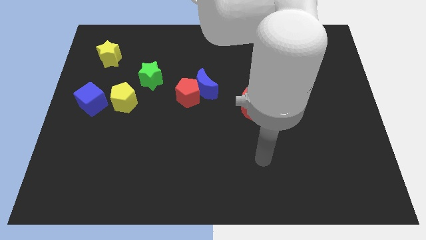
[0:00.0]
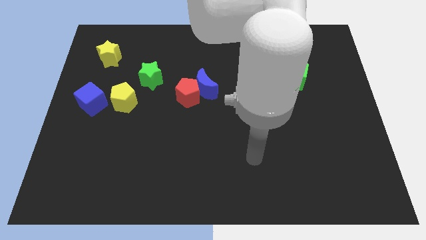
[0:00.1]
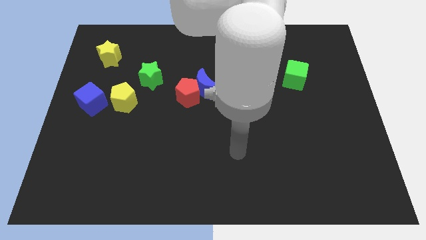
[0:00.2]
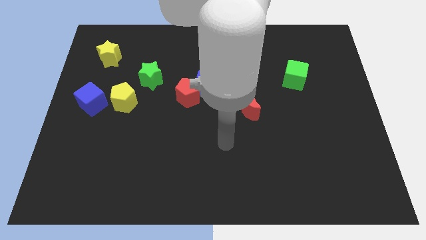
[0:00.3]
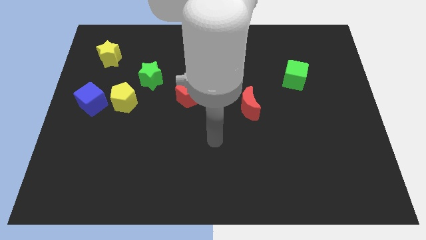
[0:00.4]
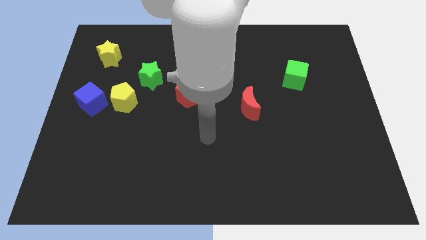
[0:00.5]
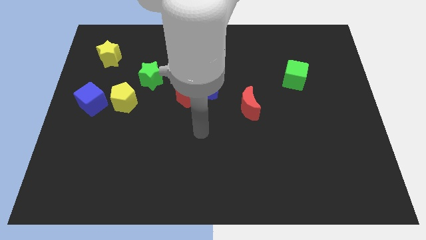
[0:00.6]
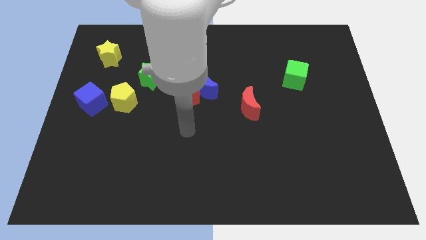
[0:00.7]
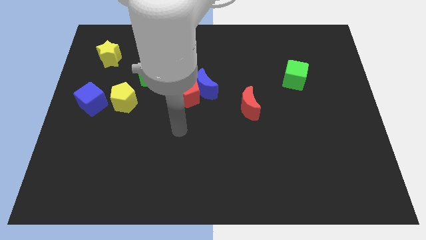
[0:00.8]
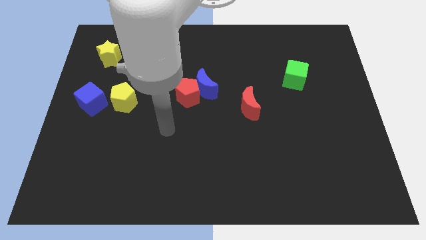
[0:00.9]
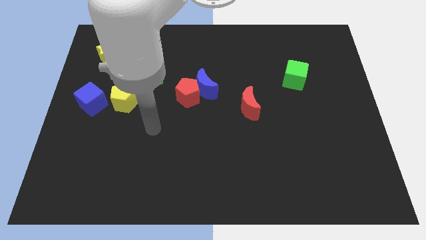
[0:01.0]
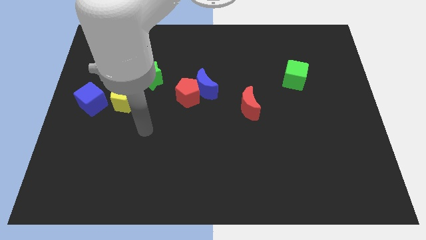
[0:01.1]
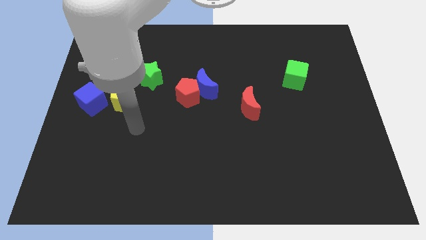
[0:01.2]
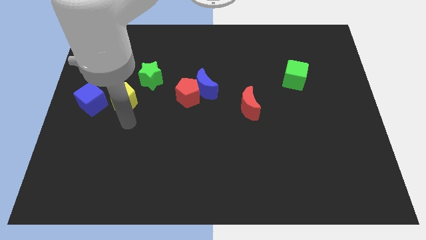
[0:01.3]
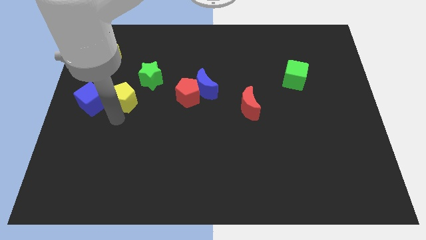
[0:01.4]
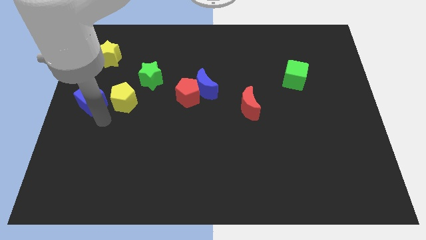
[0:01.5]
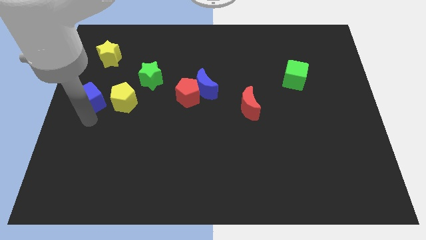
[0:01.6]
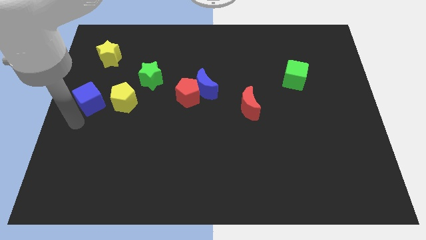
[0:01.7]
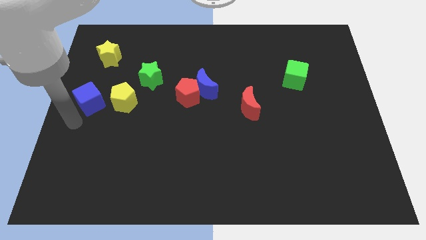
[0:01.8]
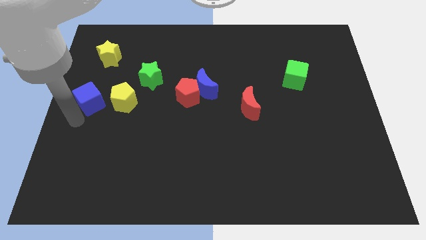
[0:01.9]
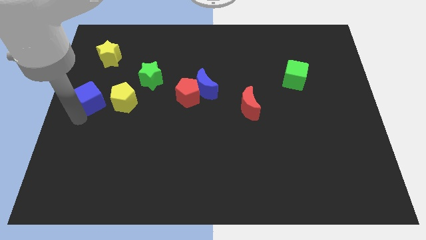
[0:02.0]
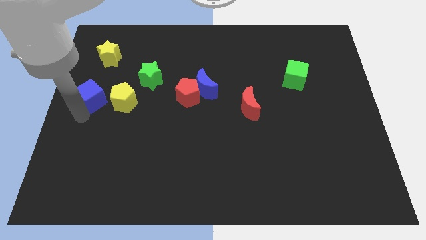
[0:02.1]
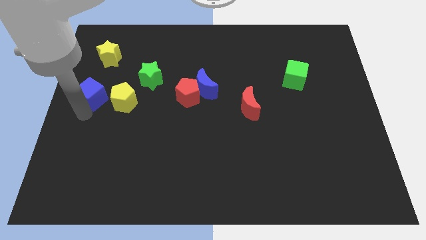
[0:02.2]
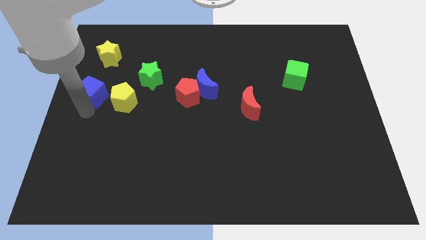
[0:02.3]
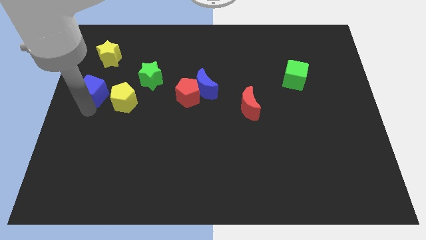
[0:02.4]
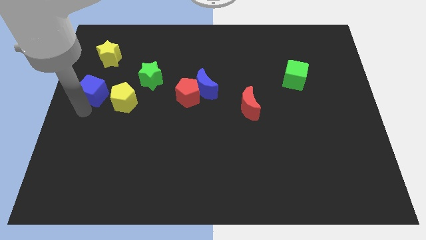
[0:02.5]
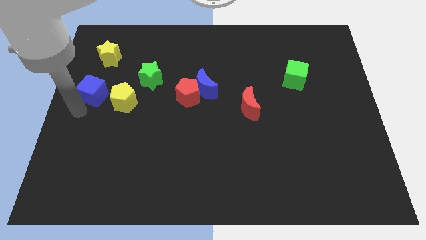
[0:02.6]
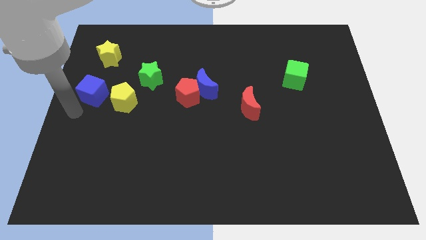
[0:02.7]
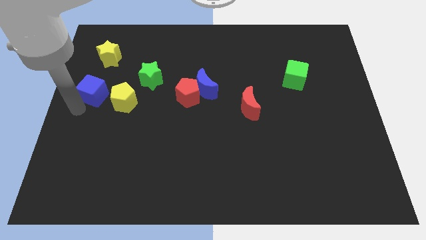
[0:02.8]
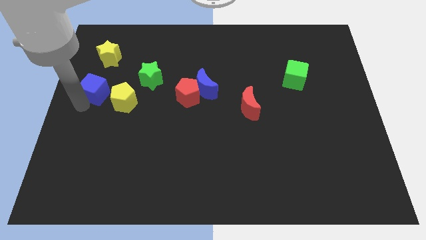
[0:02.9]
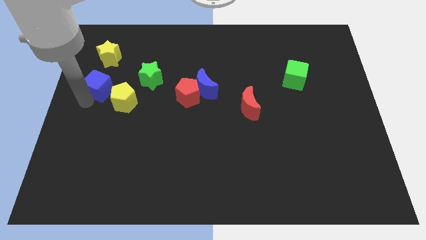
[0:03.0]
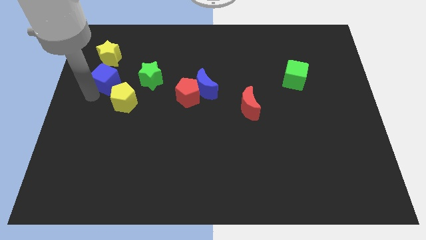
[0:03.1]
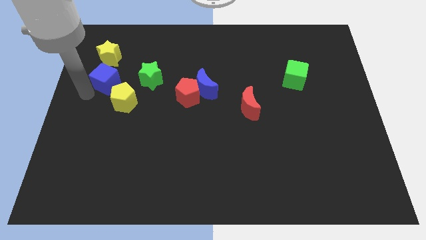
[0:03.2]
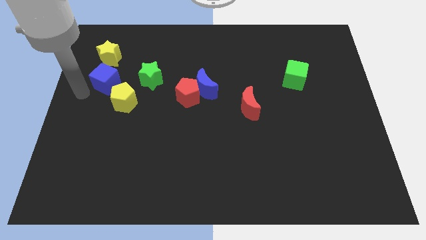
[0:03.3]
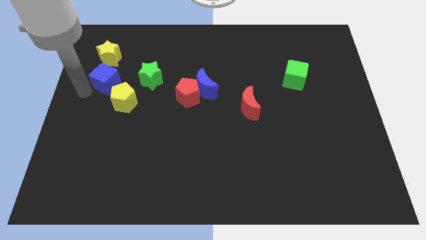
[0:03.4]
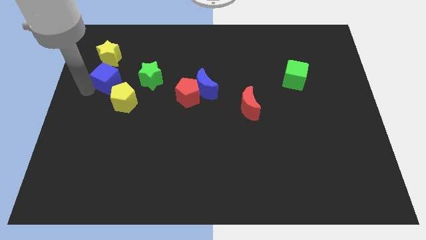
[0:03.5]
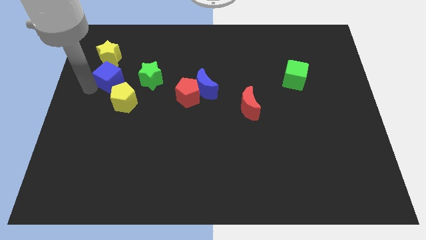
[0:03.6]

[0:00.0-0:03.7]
push the blue cube up and right diagonally a bit

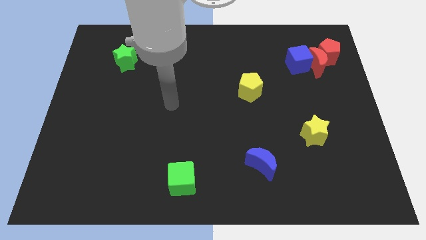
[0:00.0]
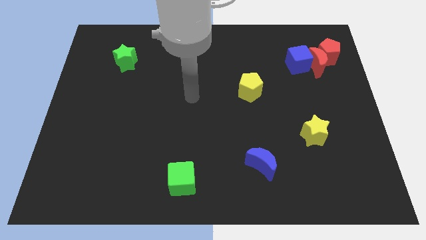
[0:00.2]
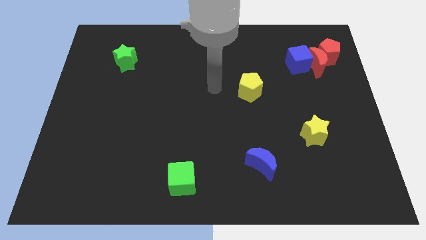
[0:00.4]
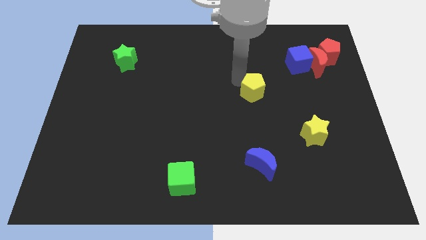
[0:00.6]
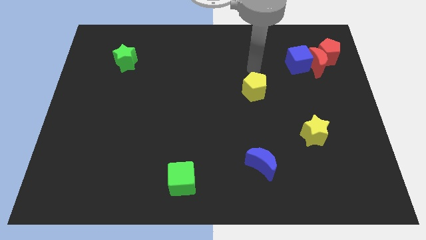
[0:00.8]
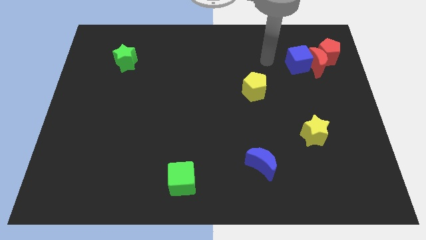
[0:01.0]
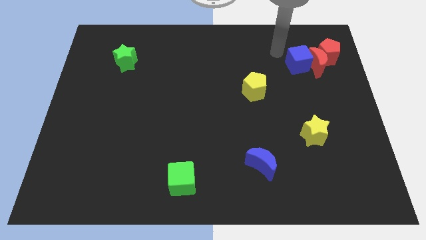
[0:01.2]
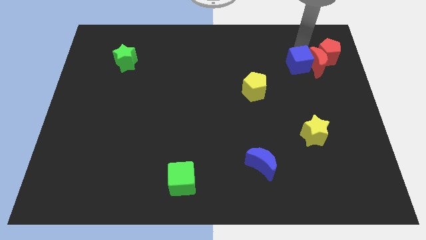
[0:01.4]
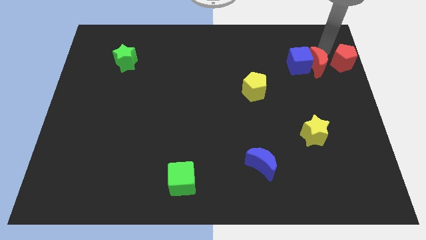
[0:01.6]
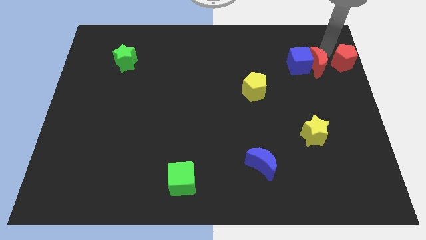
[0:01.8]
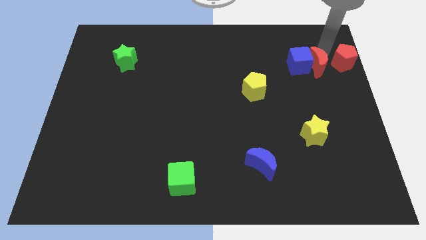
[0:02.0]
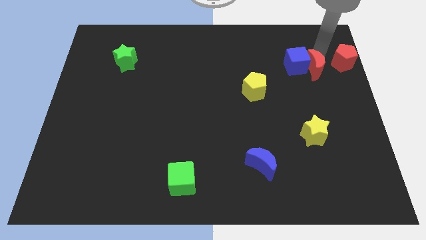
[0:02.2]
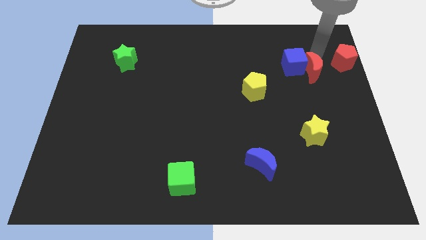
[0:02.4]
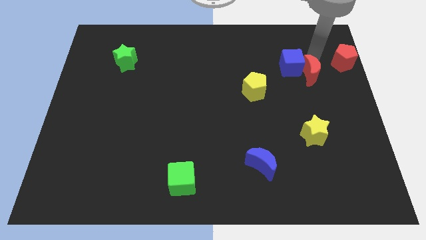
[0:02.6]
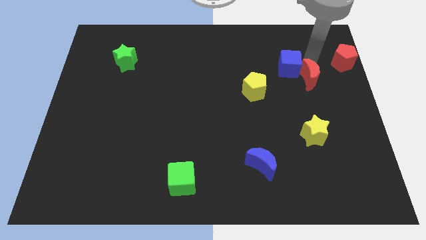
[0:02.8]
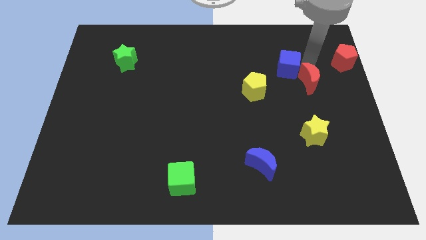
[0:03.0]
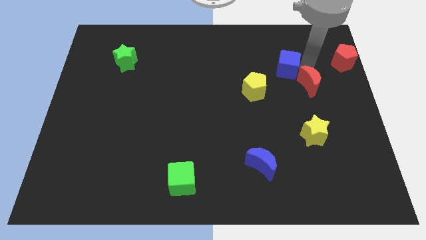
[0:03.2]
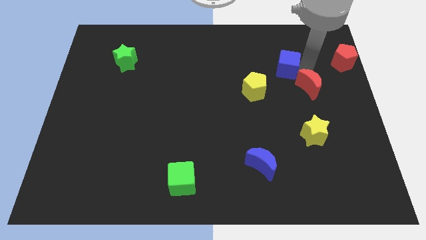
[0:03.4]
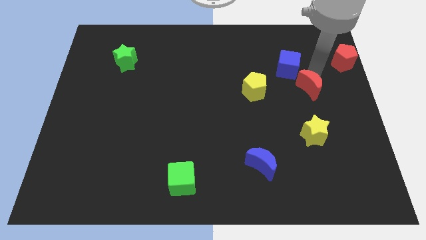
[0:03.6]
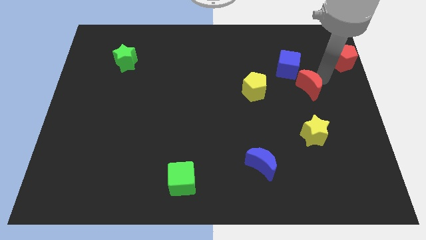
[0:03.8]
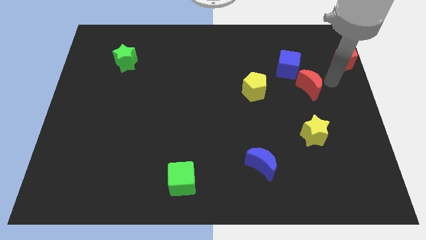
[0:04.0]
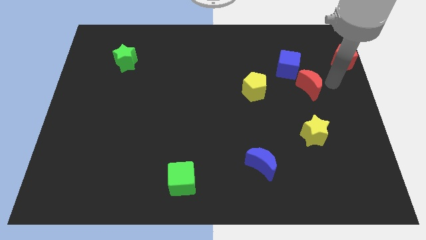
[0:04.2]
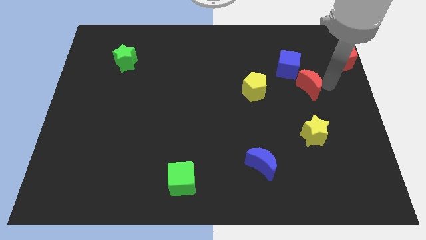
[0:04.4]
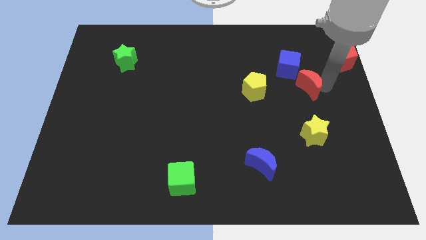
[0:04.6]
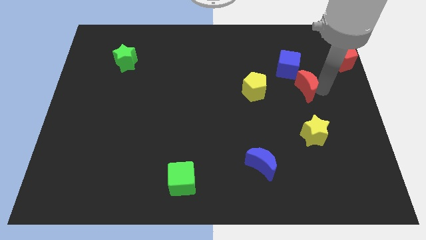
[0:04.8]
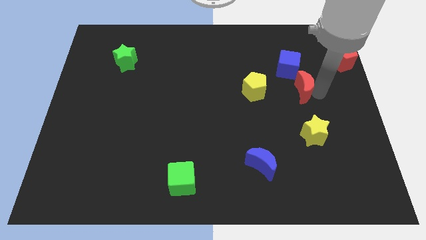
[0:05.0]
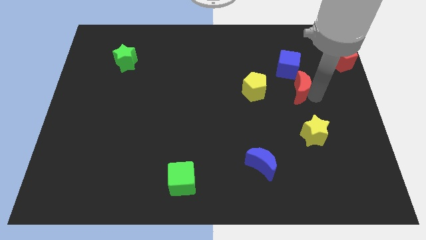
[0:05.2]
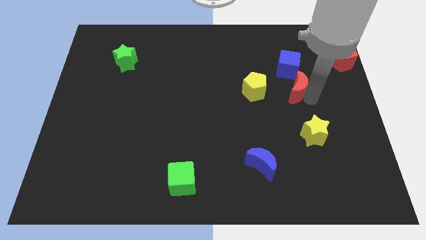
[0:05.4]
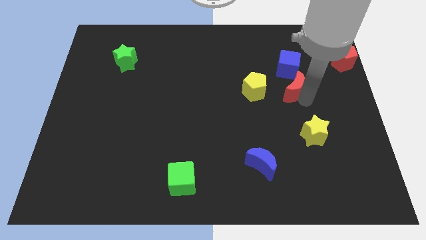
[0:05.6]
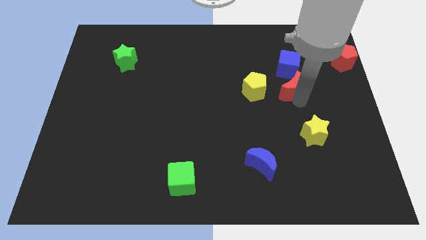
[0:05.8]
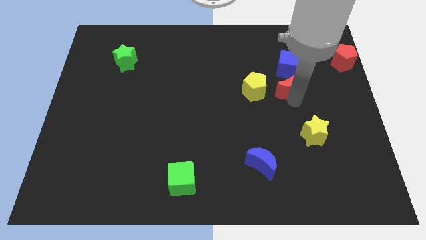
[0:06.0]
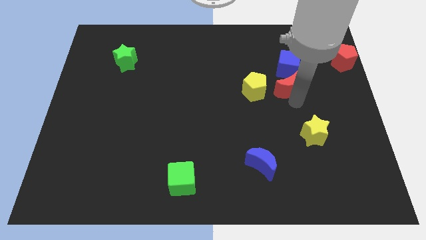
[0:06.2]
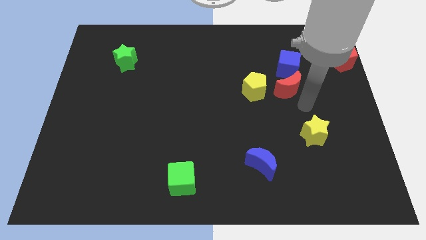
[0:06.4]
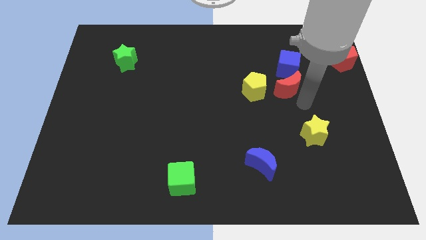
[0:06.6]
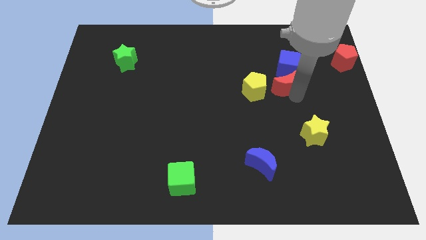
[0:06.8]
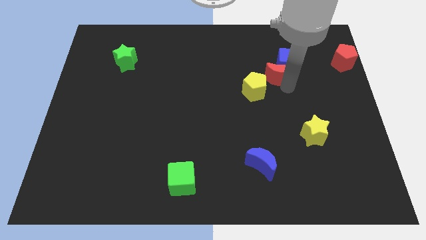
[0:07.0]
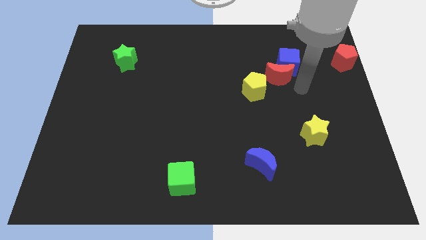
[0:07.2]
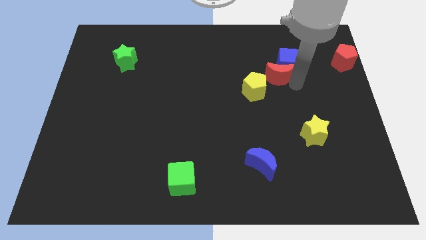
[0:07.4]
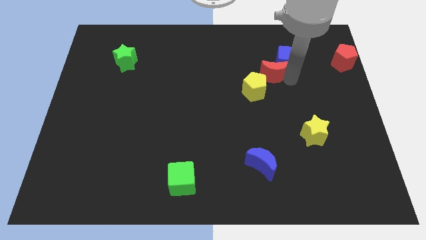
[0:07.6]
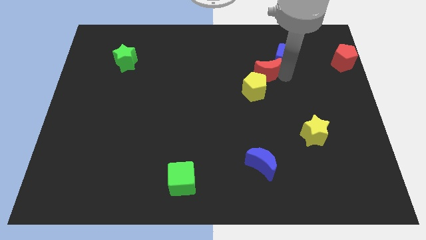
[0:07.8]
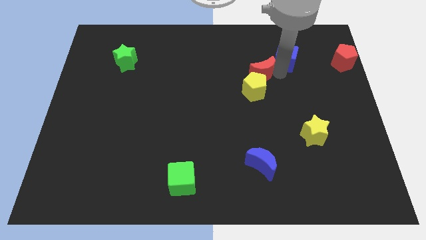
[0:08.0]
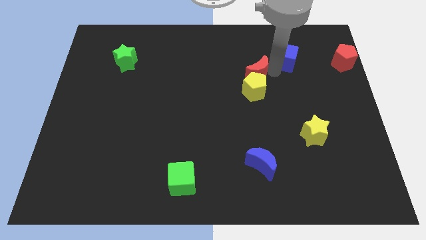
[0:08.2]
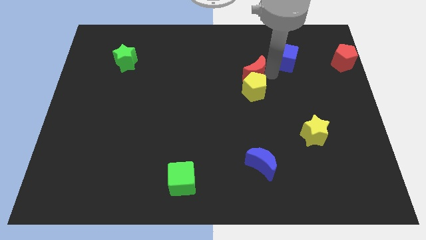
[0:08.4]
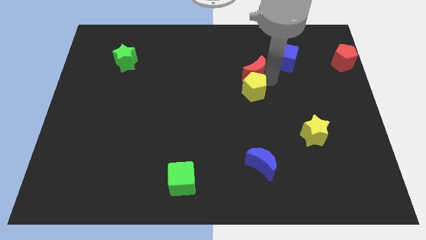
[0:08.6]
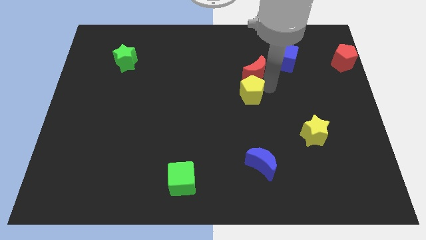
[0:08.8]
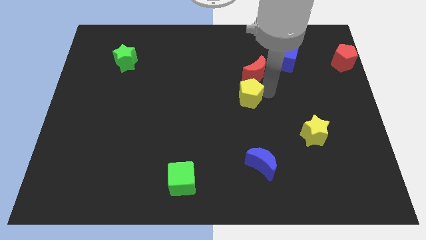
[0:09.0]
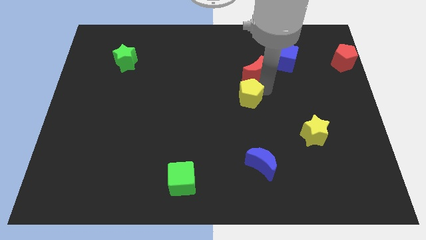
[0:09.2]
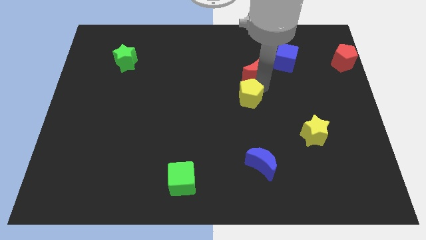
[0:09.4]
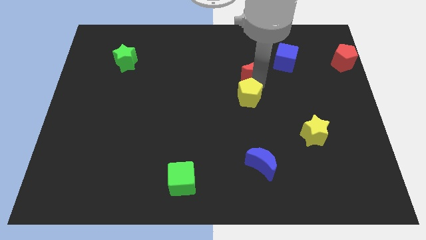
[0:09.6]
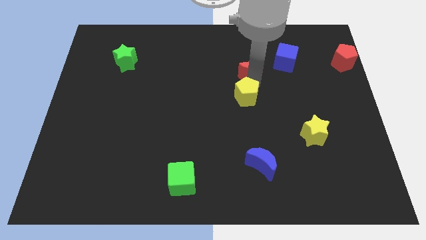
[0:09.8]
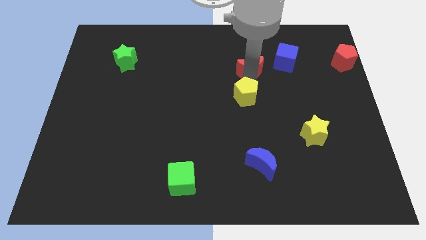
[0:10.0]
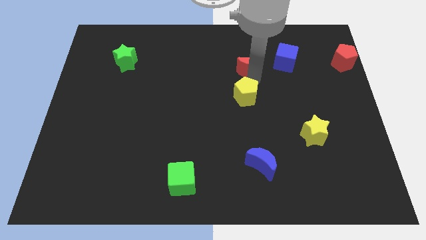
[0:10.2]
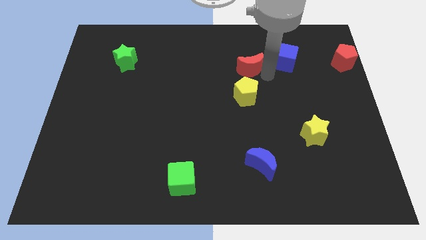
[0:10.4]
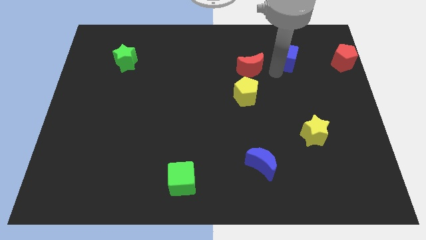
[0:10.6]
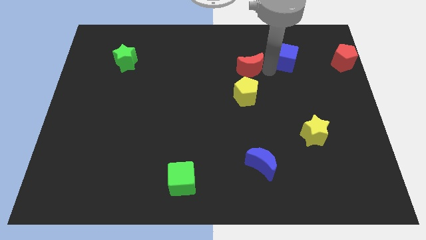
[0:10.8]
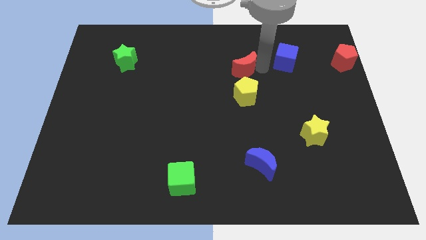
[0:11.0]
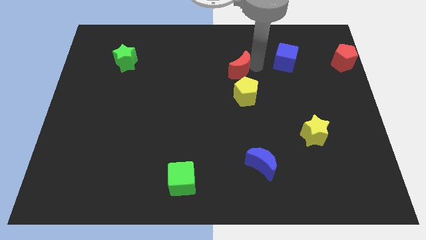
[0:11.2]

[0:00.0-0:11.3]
move the red moon to the left
